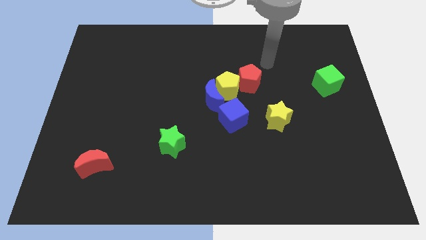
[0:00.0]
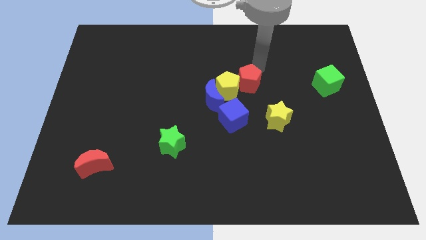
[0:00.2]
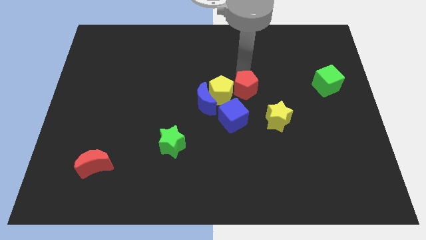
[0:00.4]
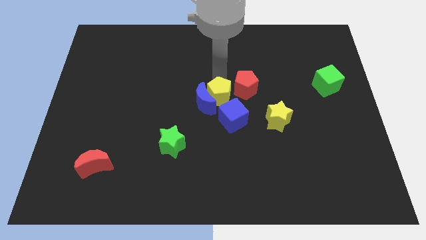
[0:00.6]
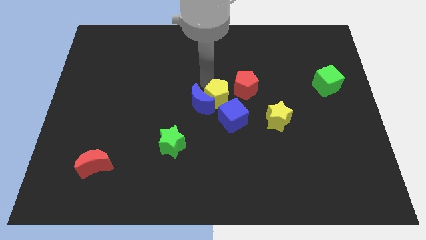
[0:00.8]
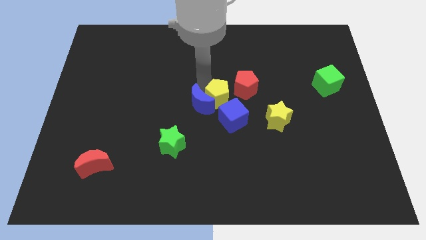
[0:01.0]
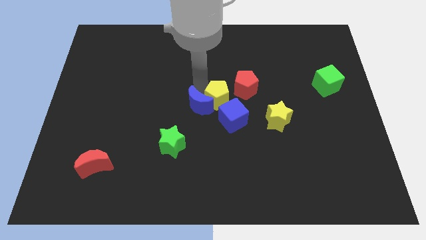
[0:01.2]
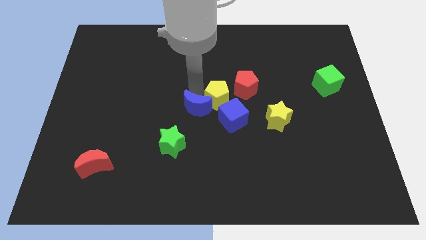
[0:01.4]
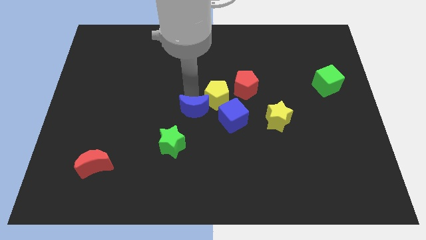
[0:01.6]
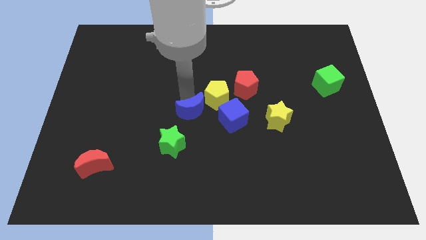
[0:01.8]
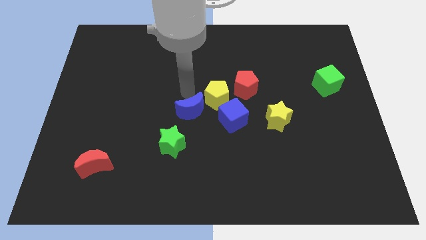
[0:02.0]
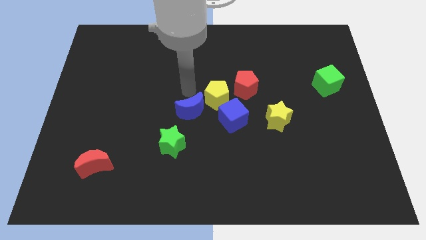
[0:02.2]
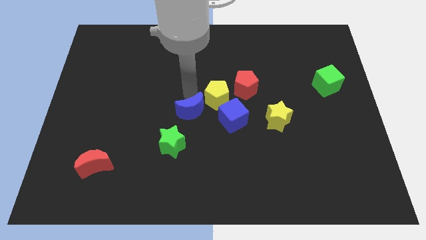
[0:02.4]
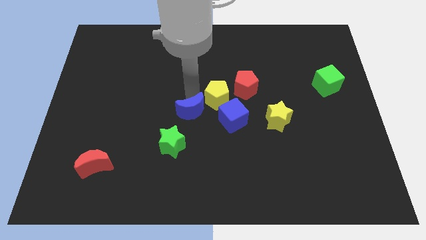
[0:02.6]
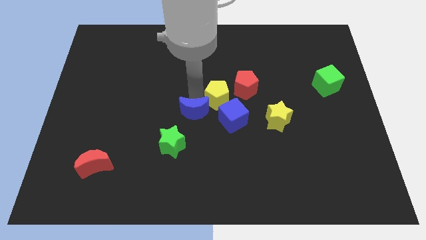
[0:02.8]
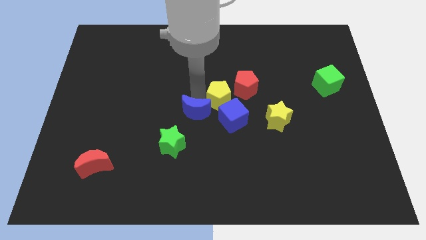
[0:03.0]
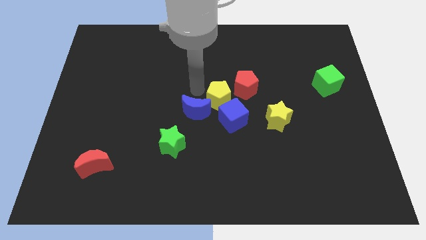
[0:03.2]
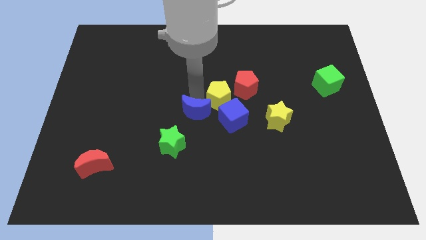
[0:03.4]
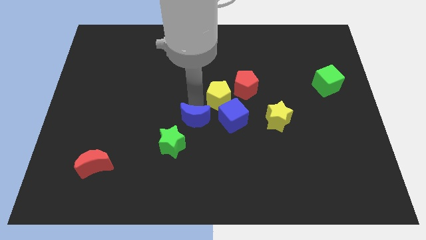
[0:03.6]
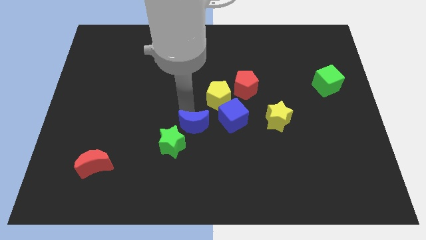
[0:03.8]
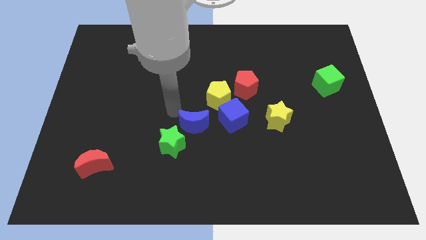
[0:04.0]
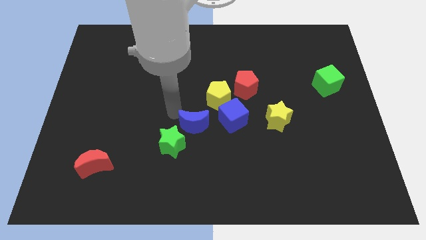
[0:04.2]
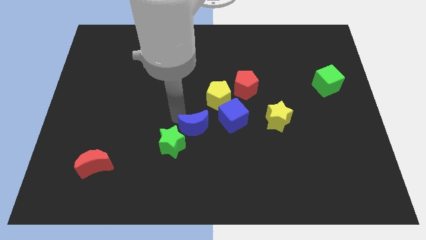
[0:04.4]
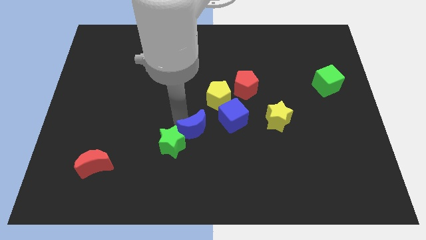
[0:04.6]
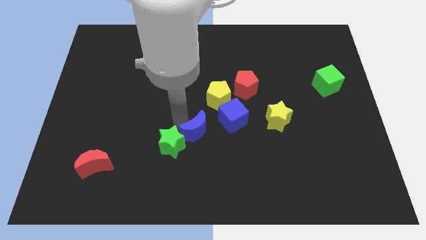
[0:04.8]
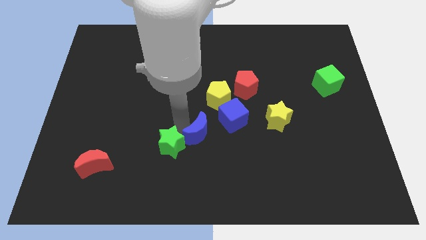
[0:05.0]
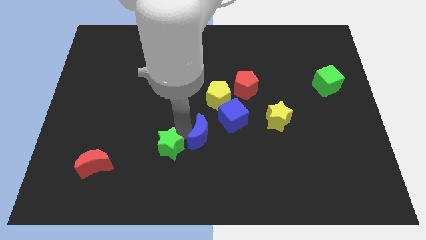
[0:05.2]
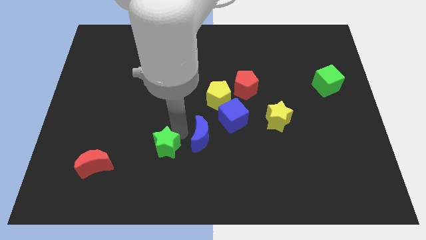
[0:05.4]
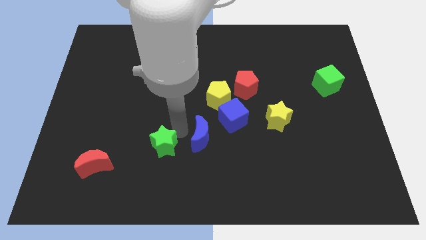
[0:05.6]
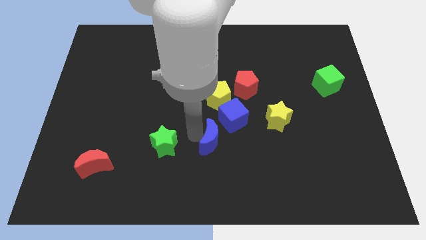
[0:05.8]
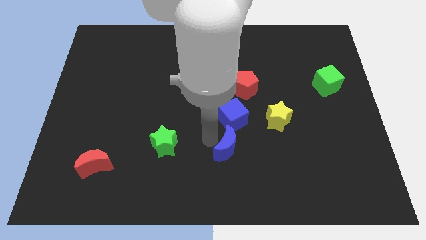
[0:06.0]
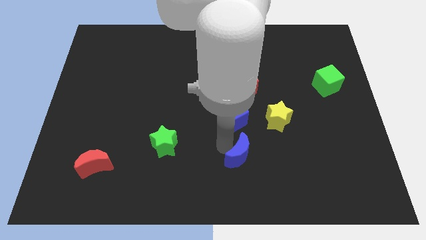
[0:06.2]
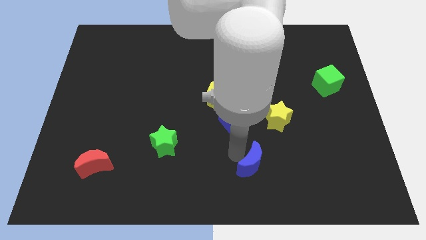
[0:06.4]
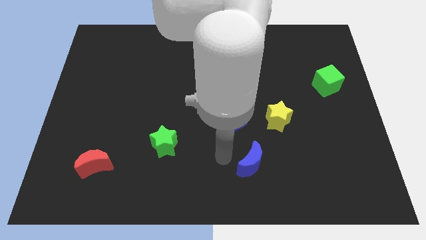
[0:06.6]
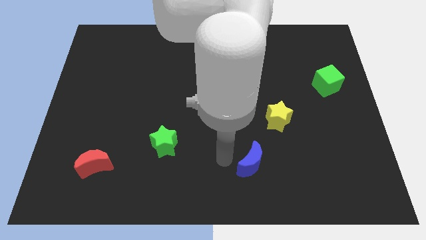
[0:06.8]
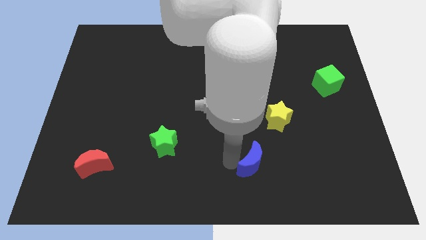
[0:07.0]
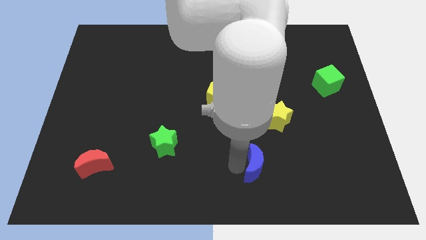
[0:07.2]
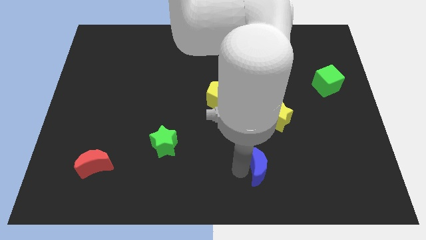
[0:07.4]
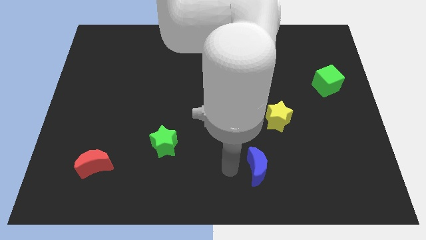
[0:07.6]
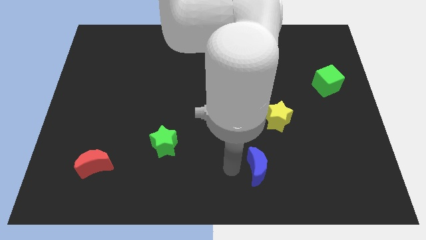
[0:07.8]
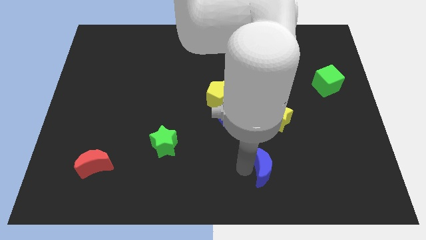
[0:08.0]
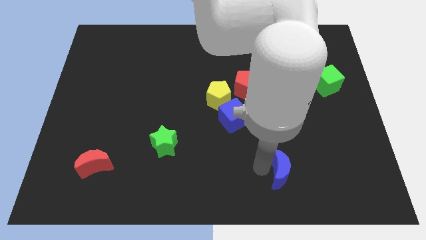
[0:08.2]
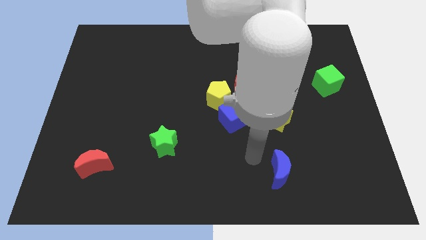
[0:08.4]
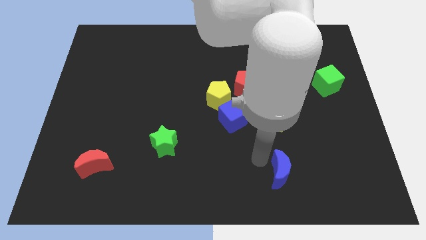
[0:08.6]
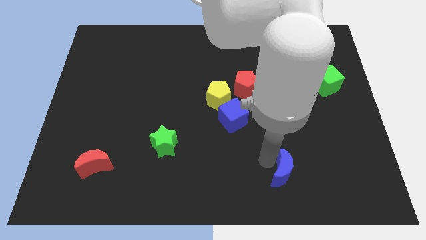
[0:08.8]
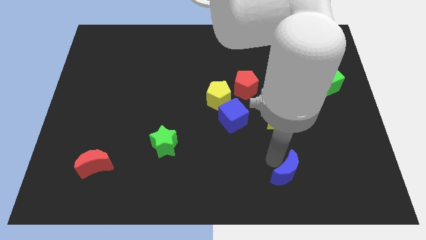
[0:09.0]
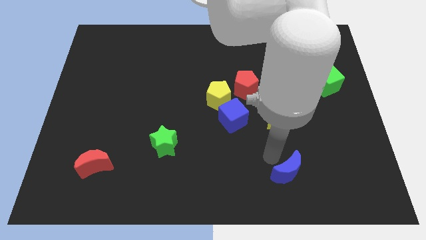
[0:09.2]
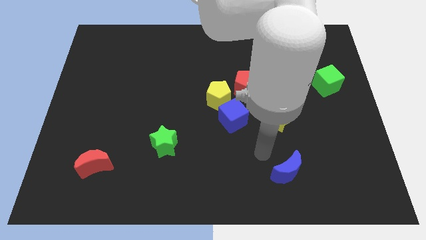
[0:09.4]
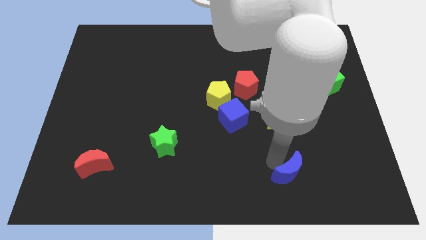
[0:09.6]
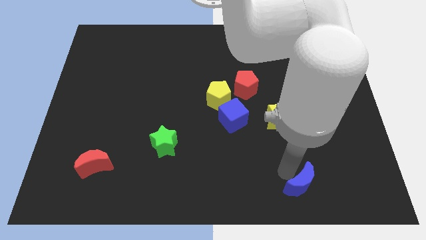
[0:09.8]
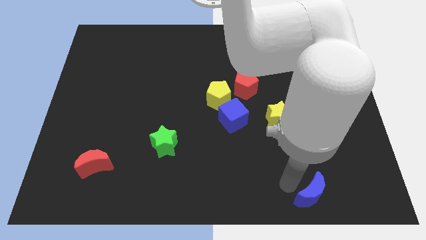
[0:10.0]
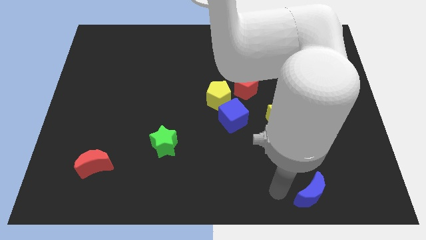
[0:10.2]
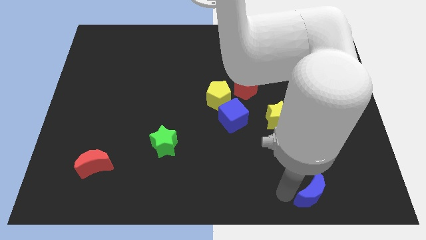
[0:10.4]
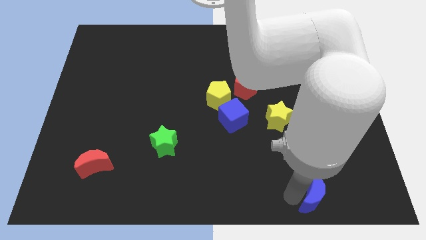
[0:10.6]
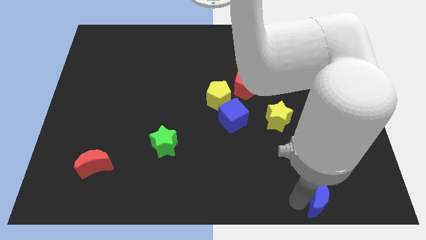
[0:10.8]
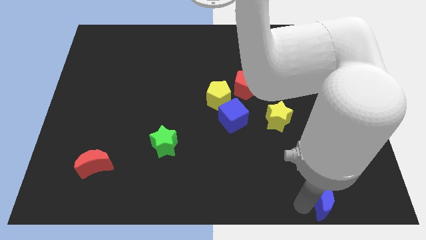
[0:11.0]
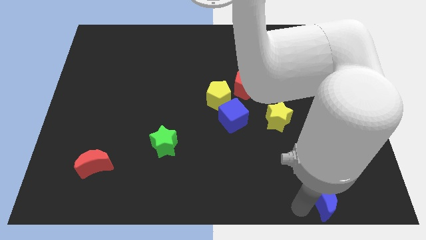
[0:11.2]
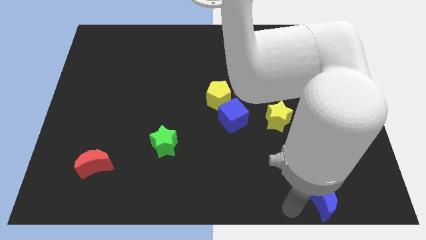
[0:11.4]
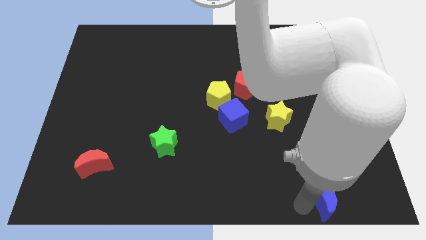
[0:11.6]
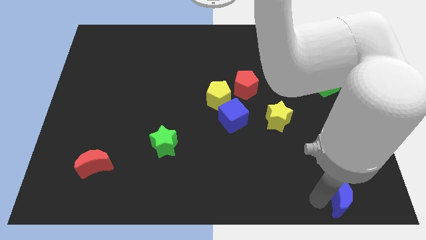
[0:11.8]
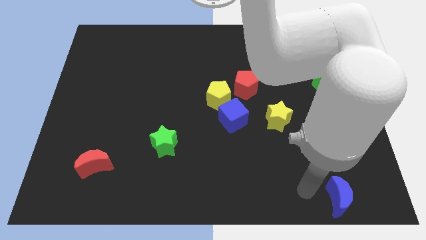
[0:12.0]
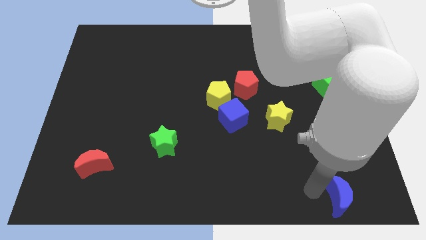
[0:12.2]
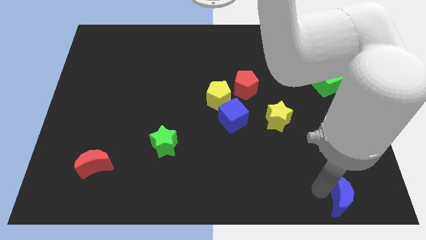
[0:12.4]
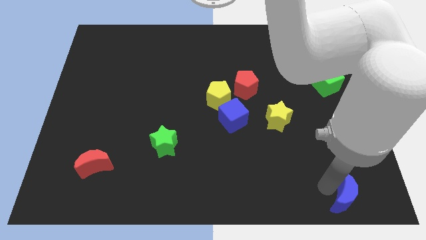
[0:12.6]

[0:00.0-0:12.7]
slide the blue moon to the bottom right of the board

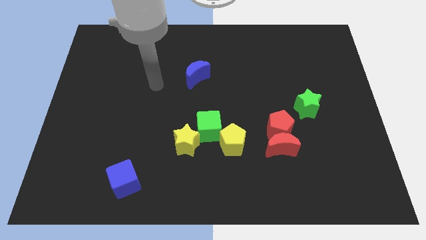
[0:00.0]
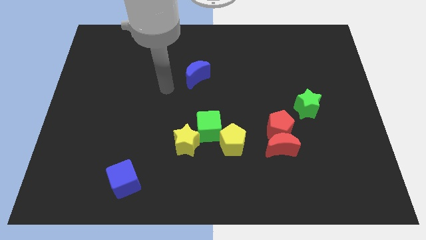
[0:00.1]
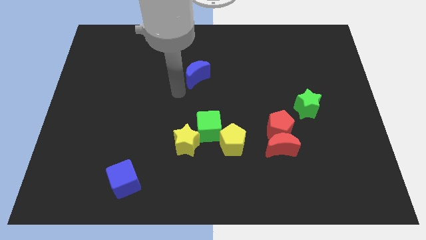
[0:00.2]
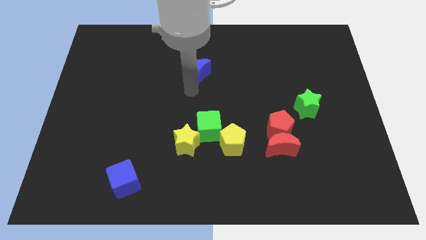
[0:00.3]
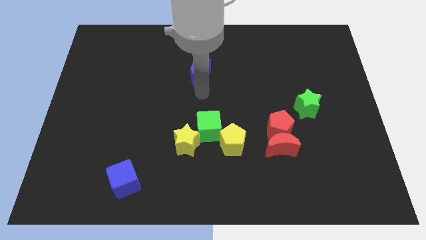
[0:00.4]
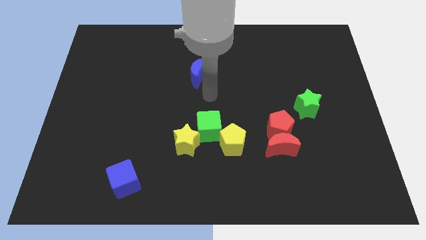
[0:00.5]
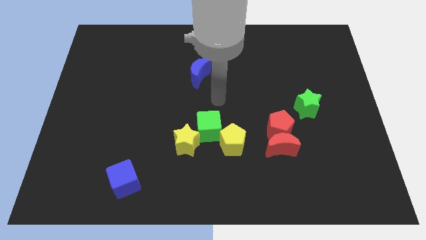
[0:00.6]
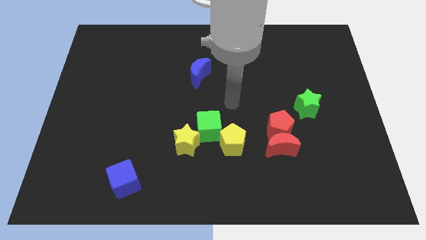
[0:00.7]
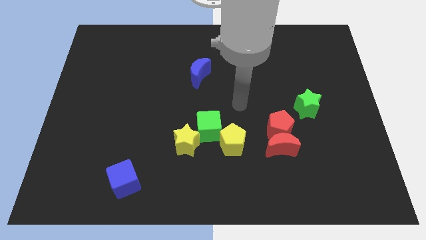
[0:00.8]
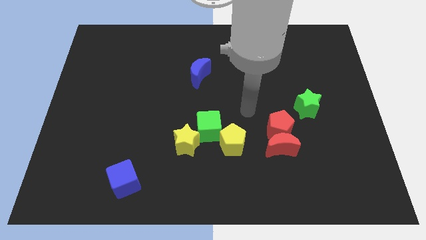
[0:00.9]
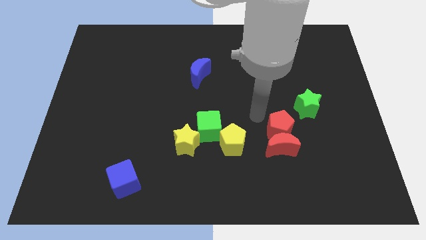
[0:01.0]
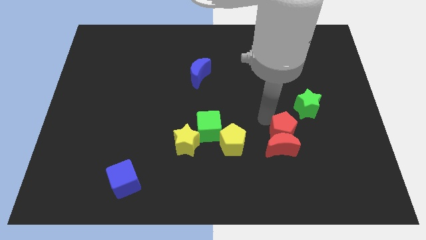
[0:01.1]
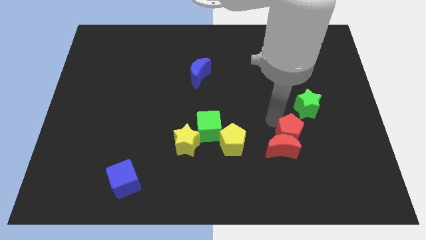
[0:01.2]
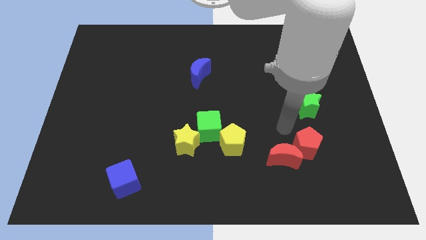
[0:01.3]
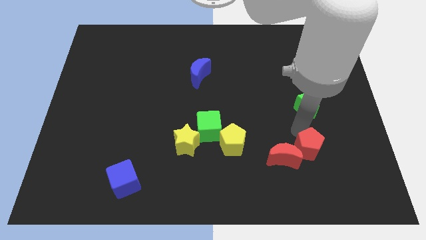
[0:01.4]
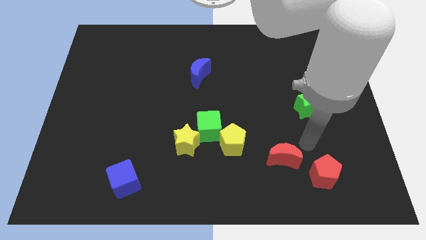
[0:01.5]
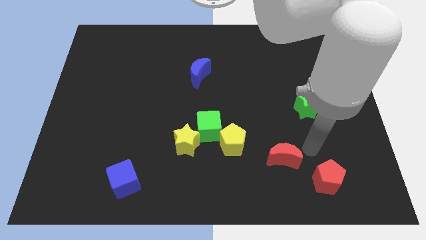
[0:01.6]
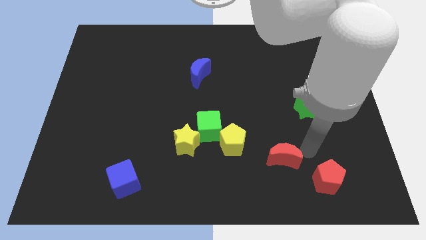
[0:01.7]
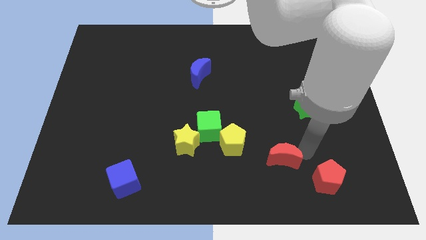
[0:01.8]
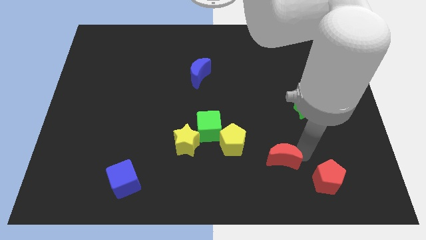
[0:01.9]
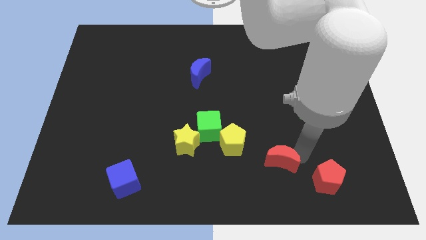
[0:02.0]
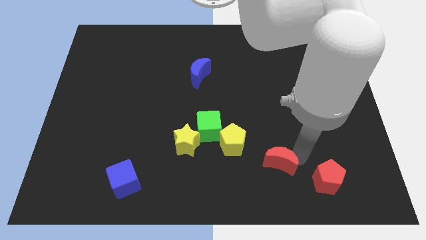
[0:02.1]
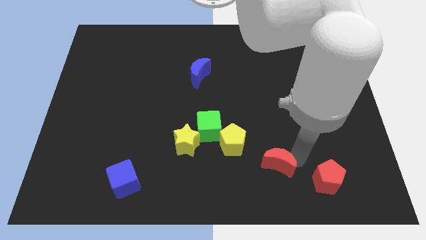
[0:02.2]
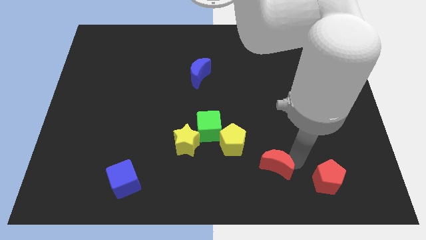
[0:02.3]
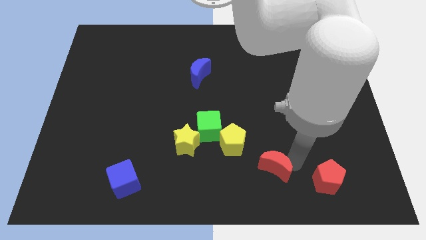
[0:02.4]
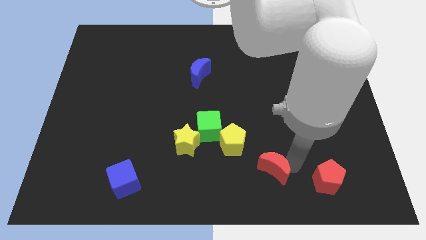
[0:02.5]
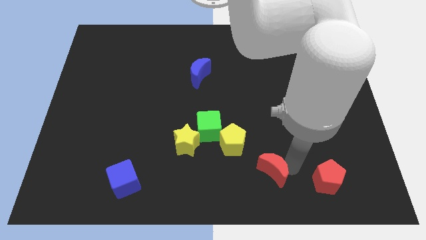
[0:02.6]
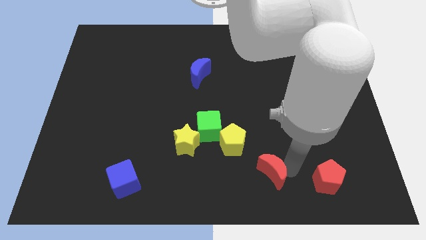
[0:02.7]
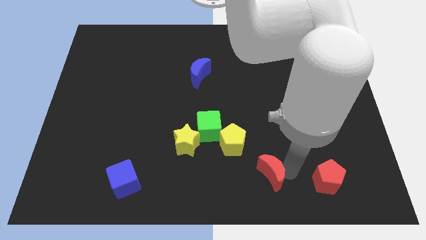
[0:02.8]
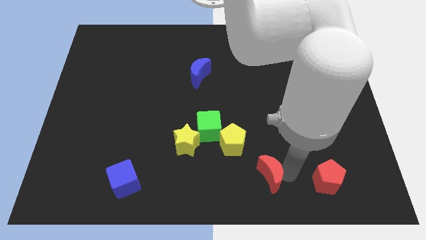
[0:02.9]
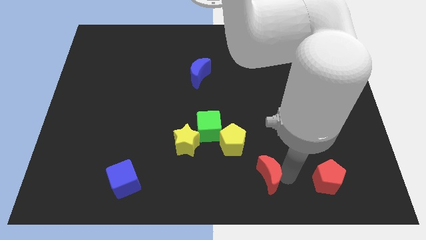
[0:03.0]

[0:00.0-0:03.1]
move the red moon to the bottom
